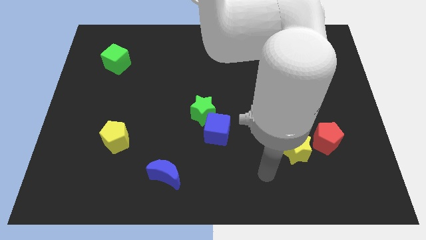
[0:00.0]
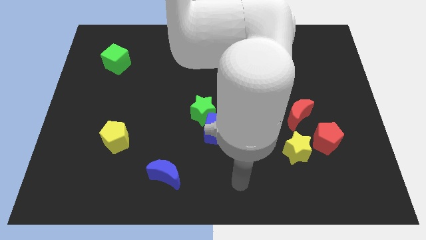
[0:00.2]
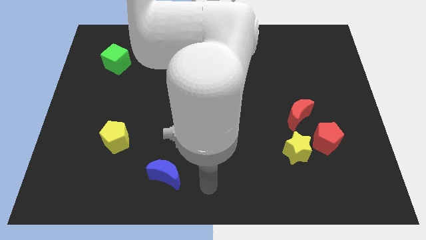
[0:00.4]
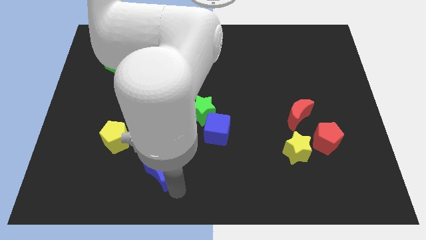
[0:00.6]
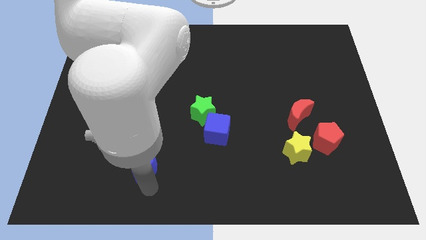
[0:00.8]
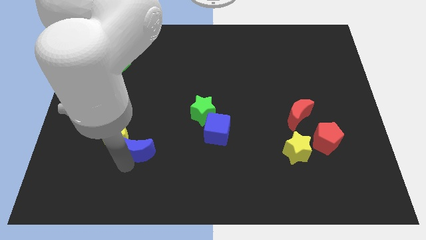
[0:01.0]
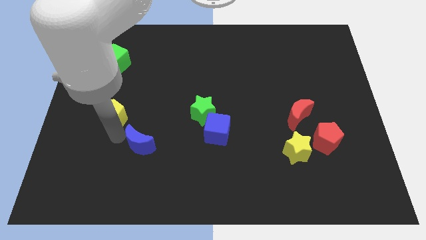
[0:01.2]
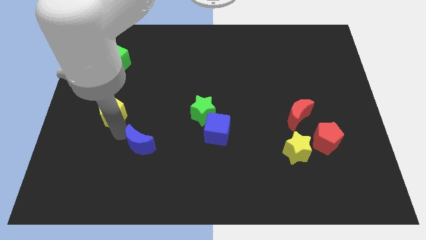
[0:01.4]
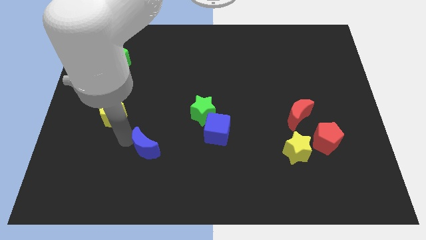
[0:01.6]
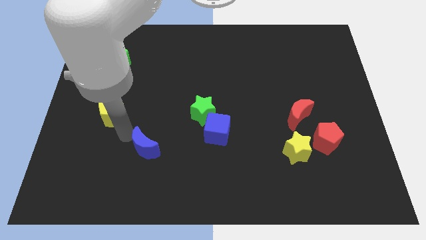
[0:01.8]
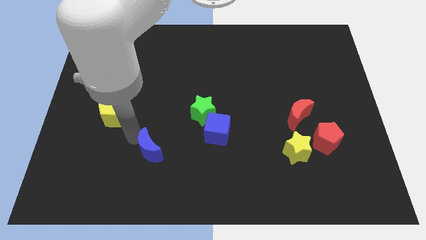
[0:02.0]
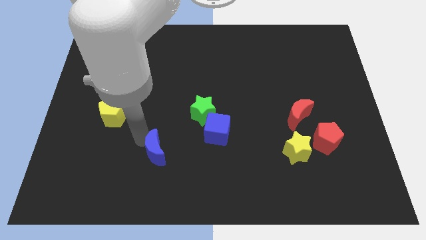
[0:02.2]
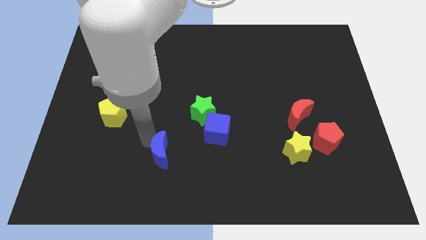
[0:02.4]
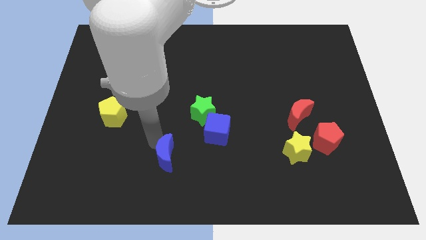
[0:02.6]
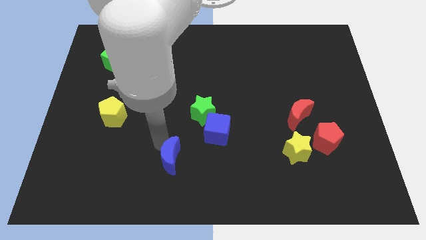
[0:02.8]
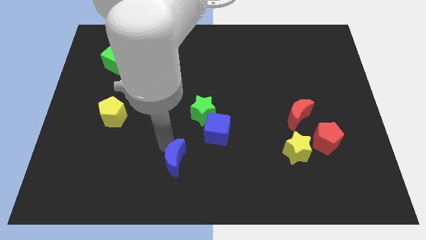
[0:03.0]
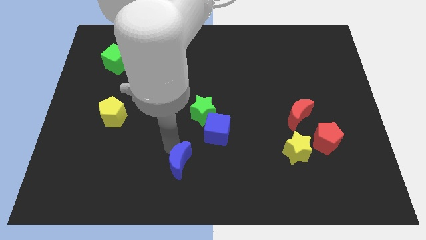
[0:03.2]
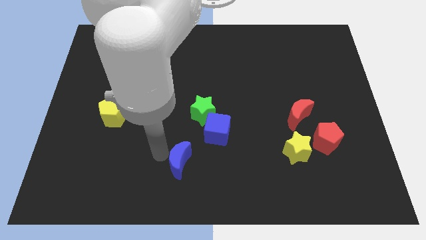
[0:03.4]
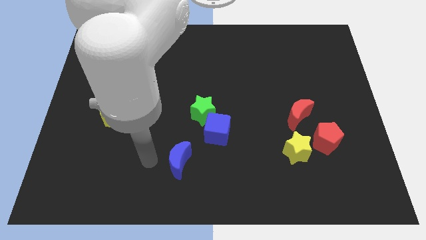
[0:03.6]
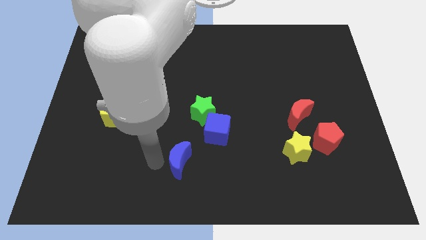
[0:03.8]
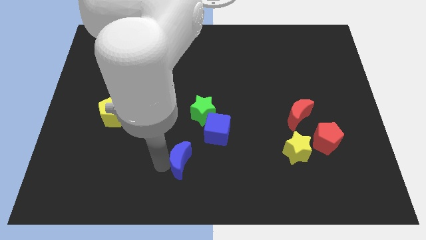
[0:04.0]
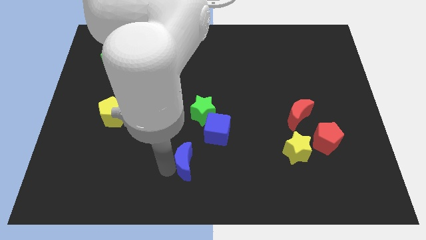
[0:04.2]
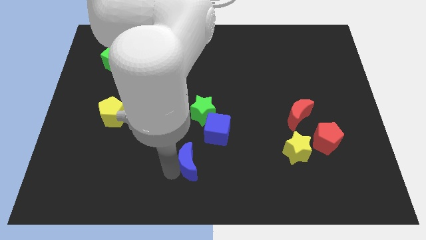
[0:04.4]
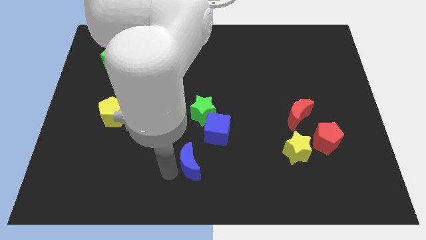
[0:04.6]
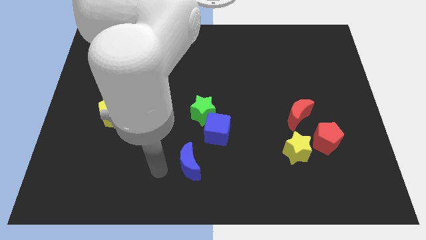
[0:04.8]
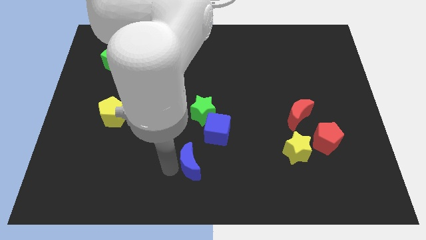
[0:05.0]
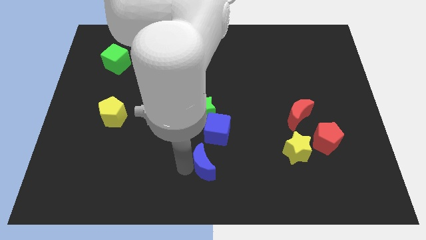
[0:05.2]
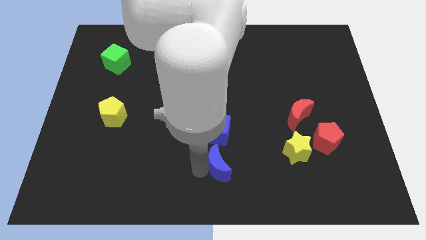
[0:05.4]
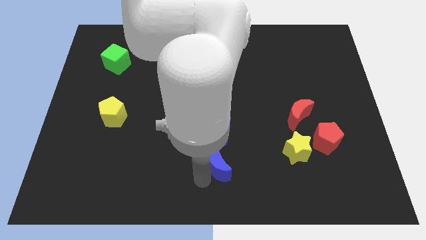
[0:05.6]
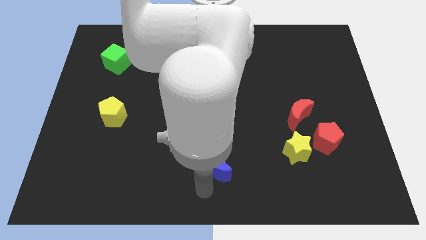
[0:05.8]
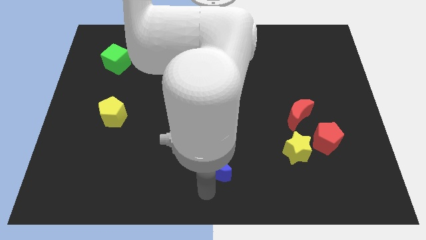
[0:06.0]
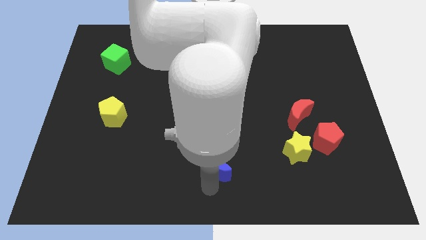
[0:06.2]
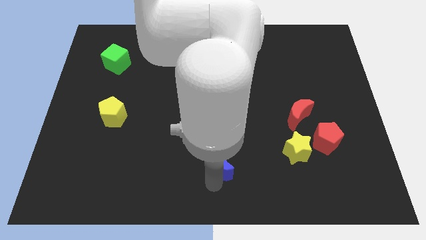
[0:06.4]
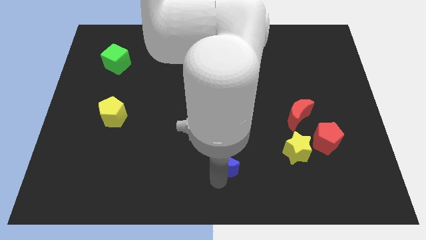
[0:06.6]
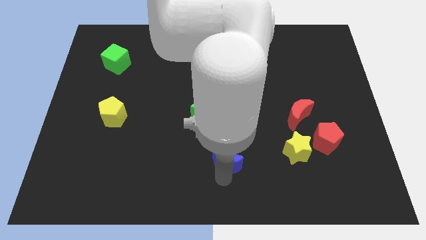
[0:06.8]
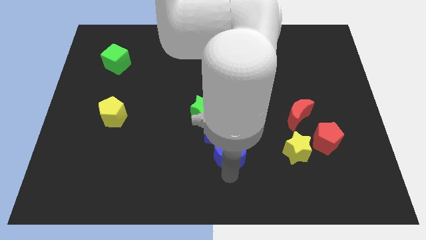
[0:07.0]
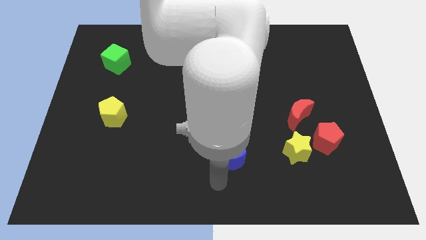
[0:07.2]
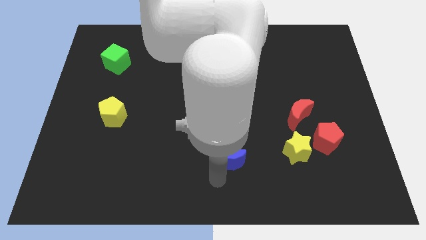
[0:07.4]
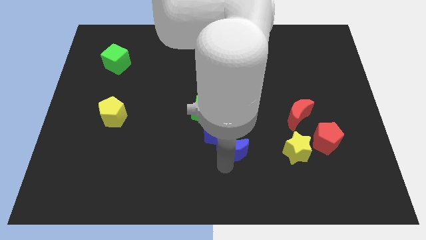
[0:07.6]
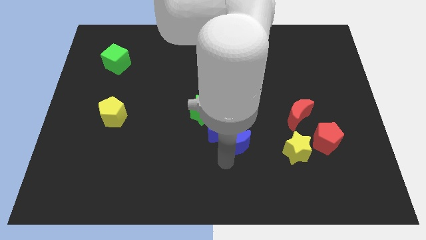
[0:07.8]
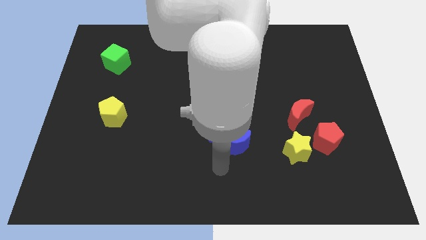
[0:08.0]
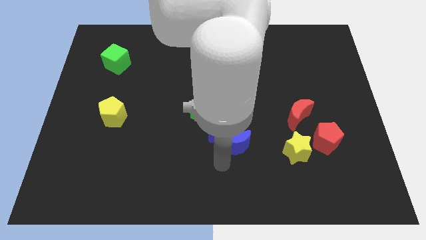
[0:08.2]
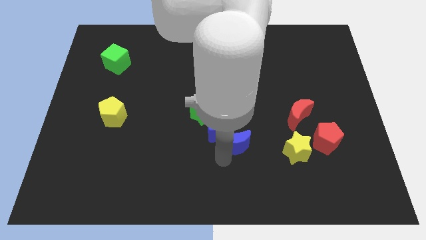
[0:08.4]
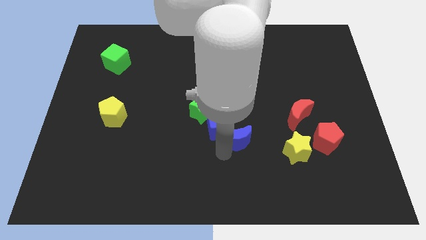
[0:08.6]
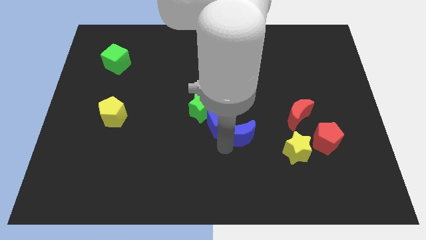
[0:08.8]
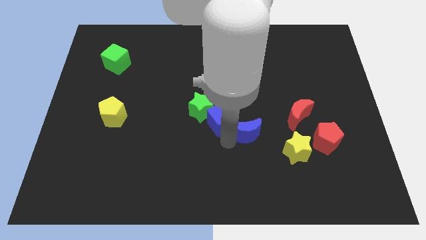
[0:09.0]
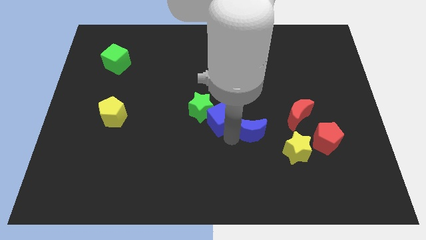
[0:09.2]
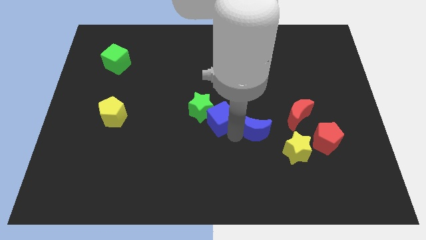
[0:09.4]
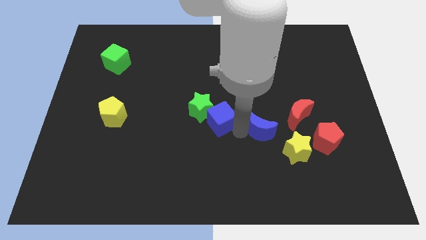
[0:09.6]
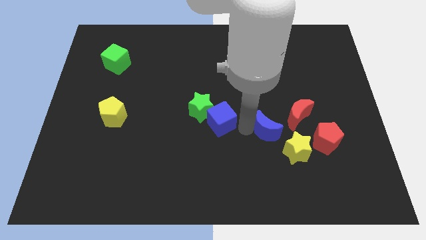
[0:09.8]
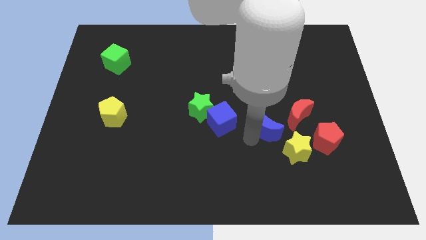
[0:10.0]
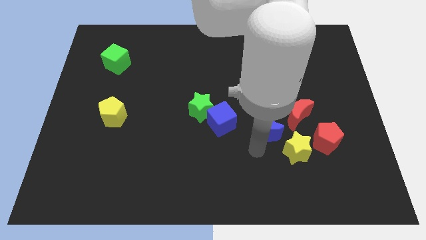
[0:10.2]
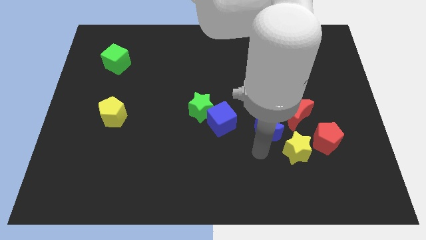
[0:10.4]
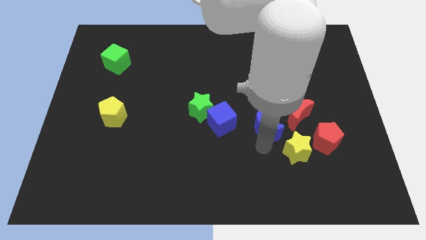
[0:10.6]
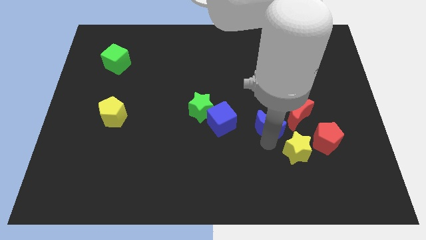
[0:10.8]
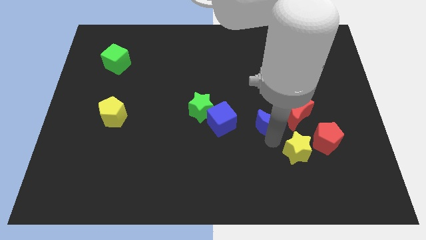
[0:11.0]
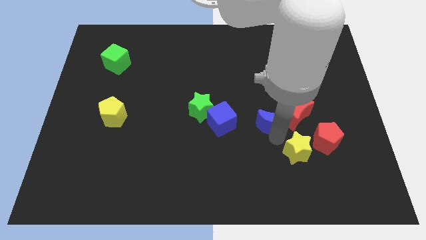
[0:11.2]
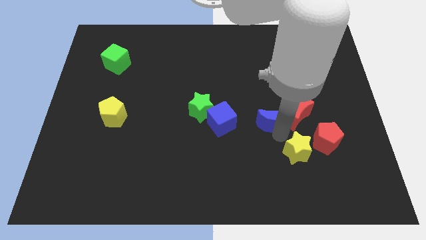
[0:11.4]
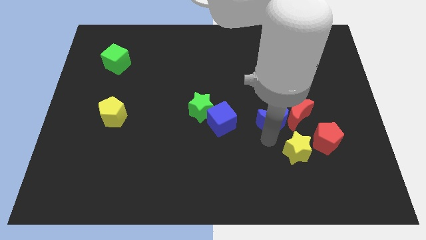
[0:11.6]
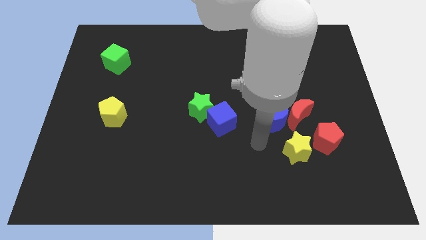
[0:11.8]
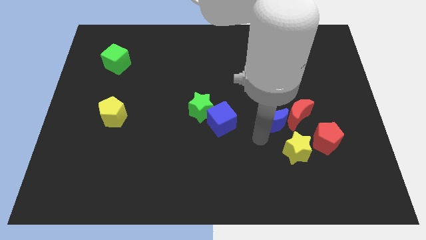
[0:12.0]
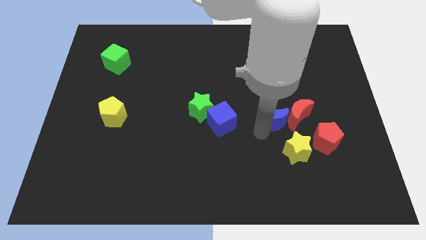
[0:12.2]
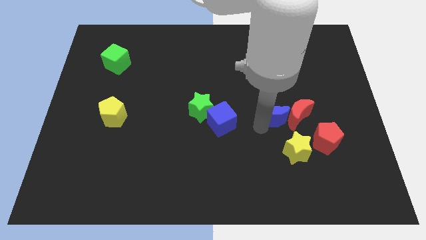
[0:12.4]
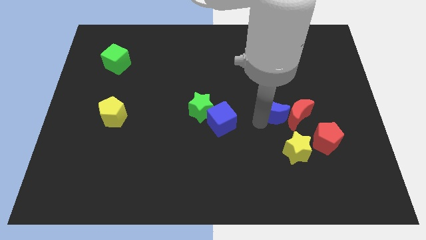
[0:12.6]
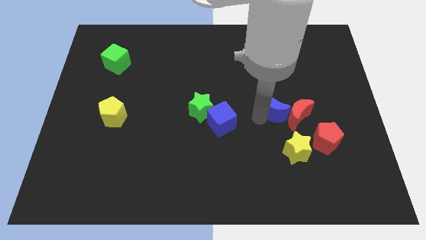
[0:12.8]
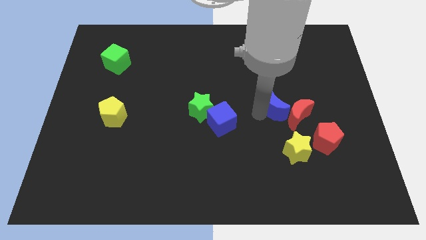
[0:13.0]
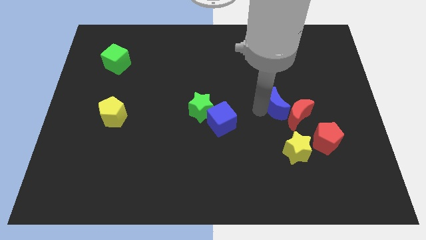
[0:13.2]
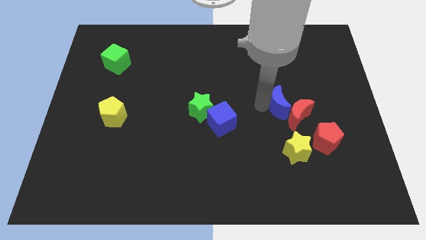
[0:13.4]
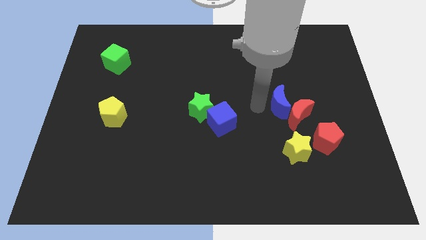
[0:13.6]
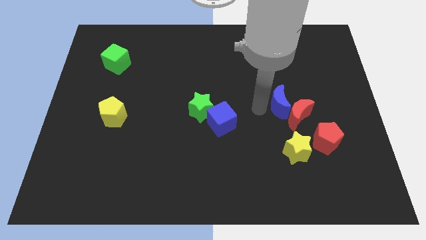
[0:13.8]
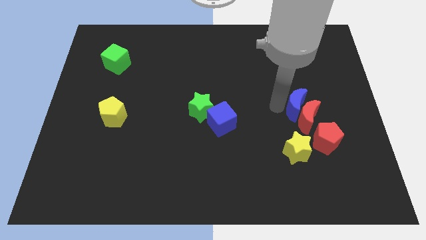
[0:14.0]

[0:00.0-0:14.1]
move the blue moon to the top right side of the red moon
